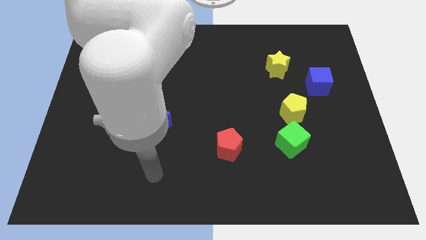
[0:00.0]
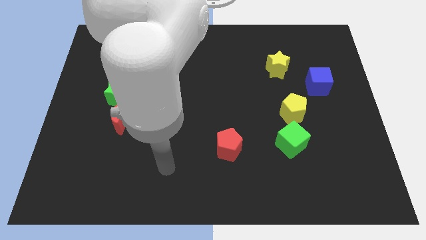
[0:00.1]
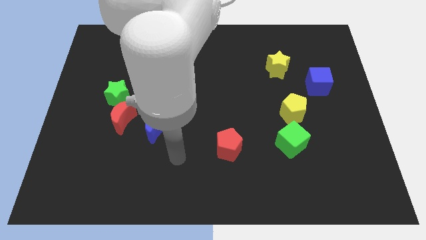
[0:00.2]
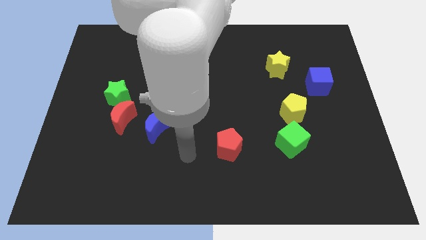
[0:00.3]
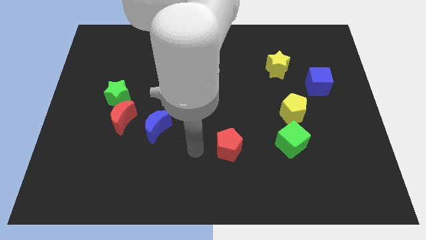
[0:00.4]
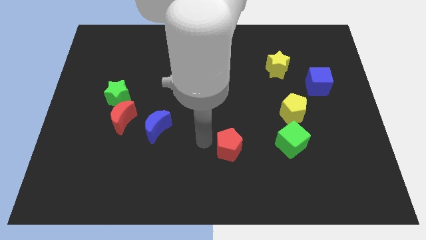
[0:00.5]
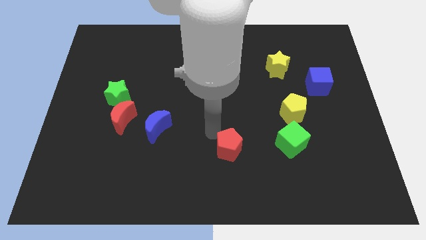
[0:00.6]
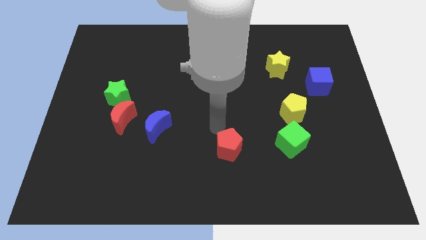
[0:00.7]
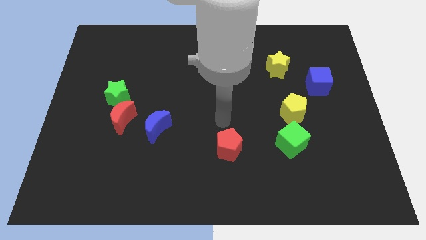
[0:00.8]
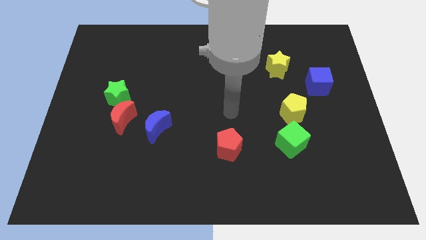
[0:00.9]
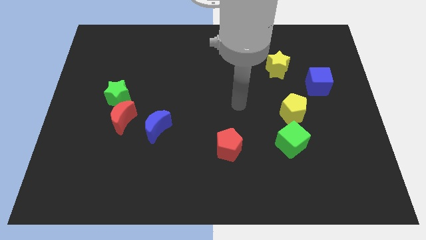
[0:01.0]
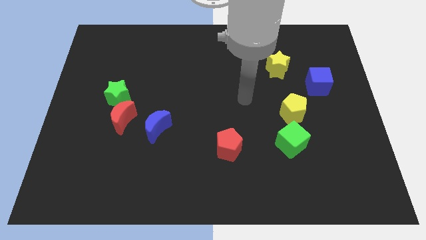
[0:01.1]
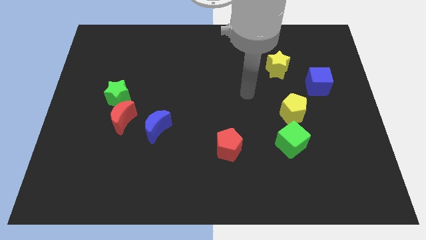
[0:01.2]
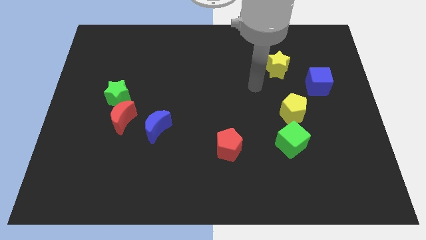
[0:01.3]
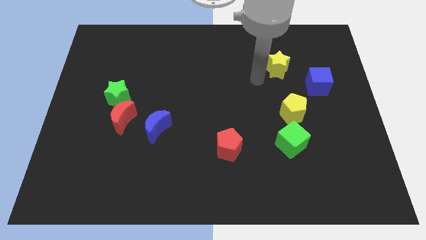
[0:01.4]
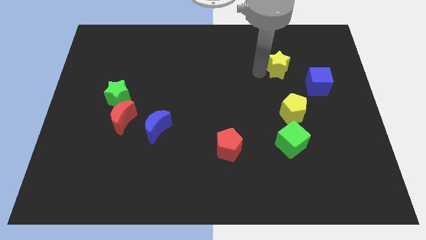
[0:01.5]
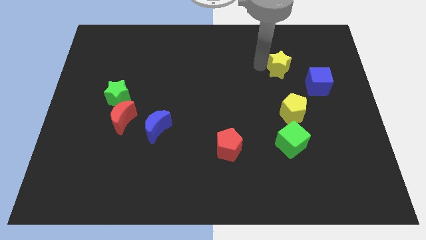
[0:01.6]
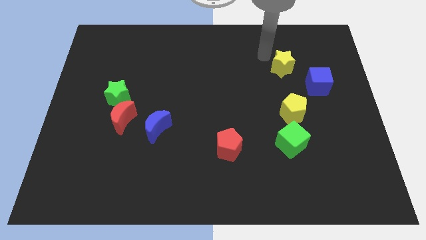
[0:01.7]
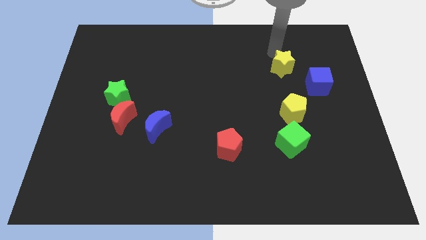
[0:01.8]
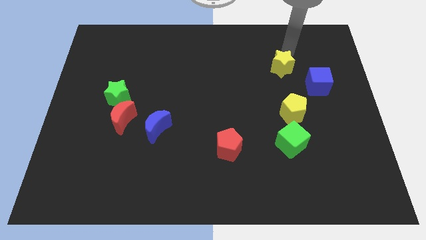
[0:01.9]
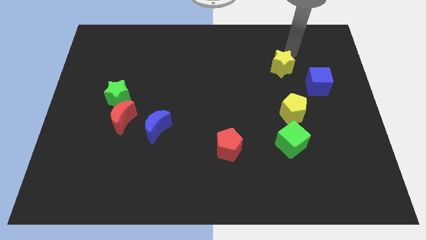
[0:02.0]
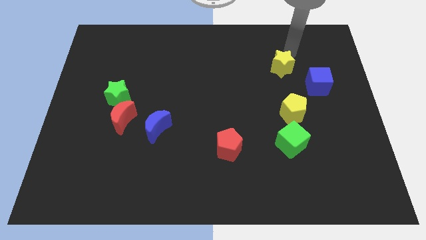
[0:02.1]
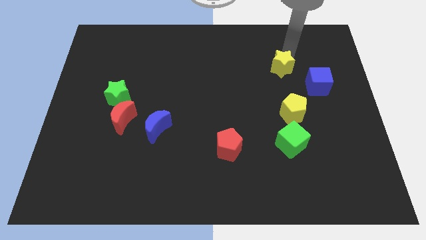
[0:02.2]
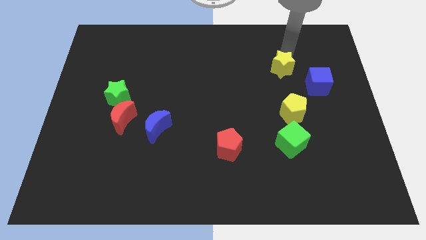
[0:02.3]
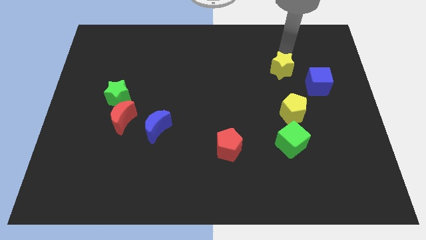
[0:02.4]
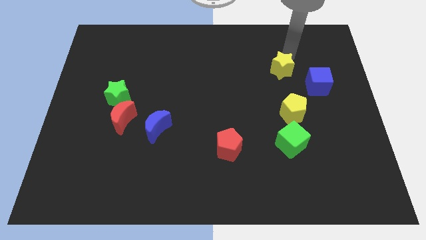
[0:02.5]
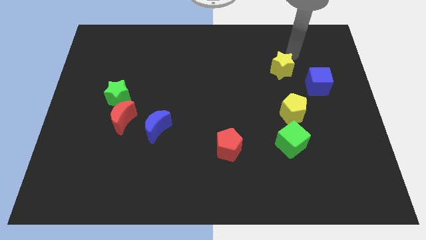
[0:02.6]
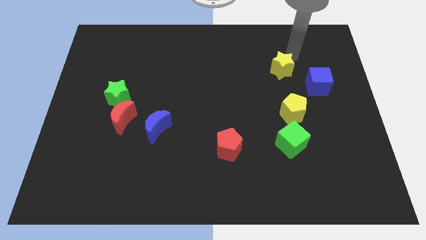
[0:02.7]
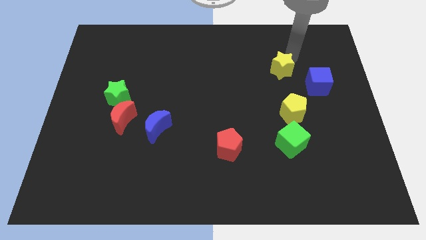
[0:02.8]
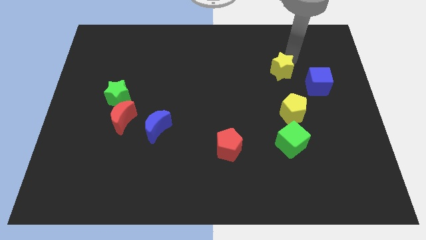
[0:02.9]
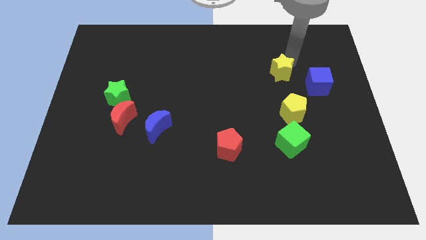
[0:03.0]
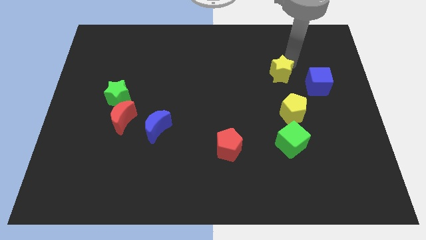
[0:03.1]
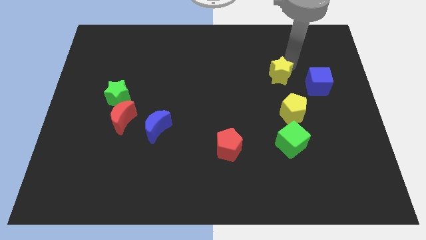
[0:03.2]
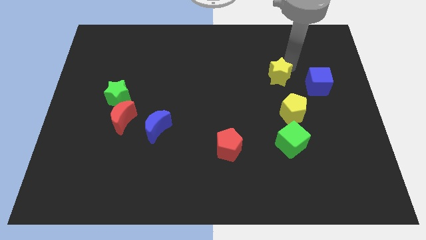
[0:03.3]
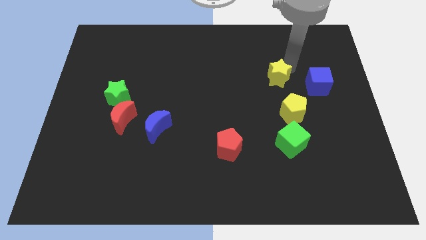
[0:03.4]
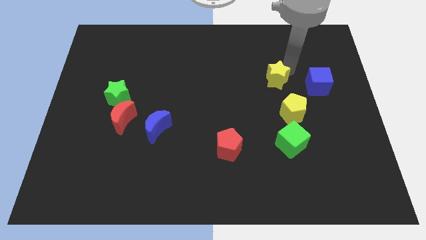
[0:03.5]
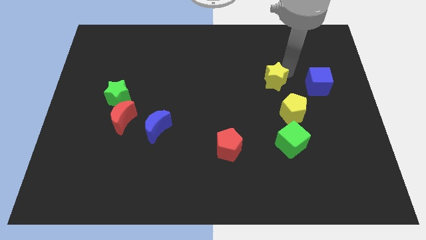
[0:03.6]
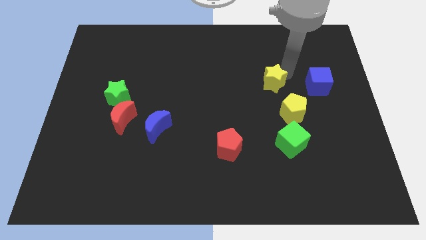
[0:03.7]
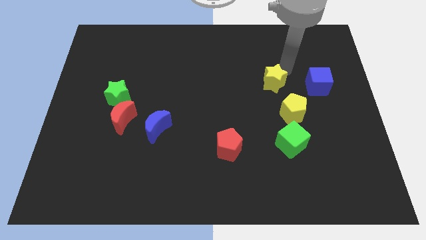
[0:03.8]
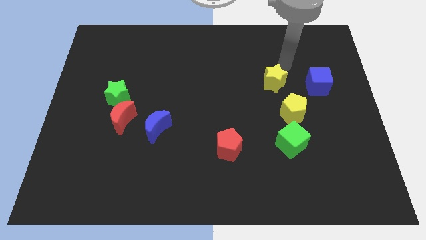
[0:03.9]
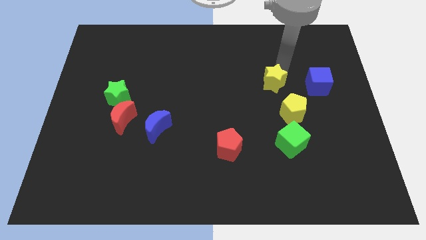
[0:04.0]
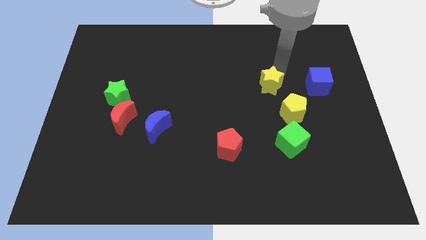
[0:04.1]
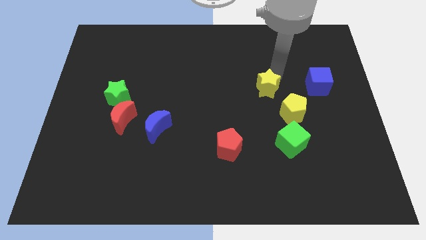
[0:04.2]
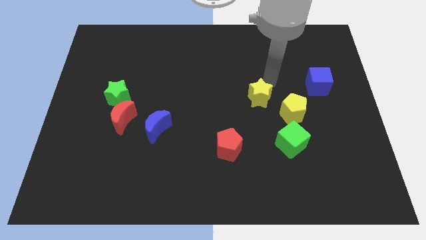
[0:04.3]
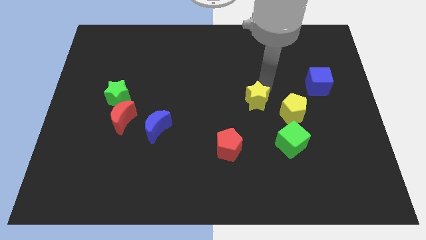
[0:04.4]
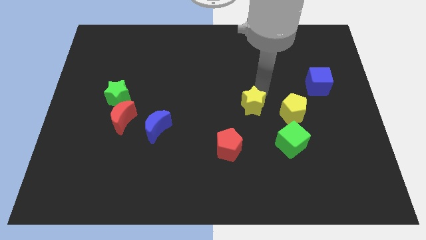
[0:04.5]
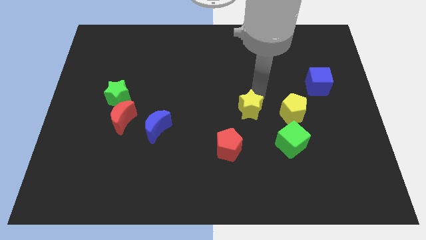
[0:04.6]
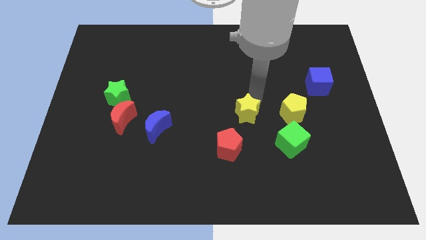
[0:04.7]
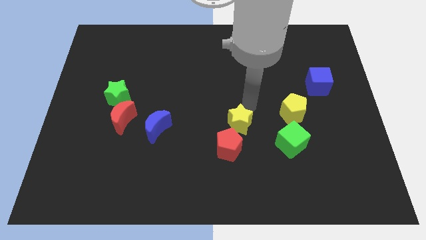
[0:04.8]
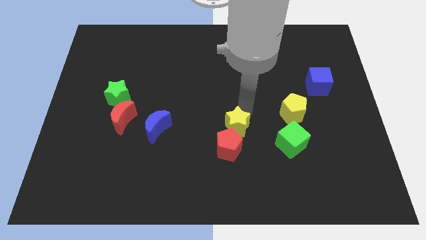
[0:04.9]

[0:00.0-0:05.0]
slide the yellow star towards the red pentagon

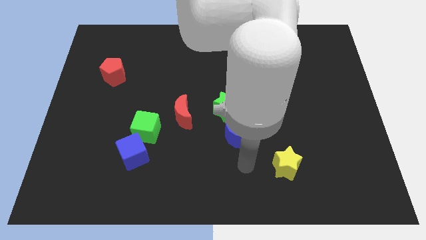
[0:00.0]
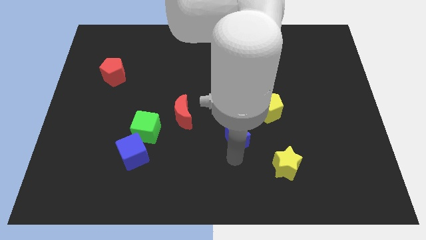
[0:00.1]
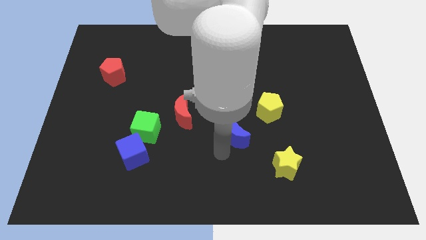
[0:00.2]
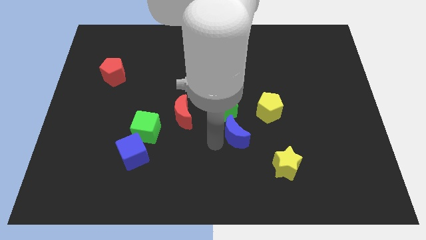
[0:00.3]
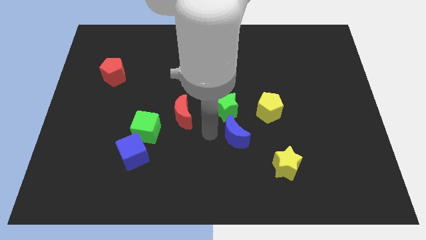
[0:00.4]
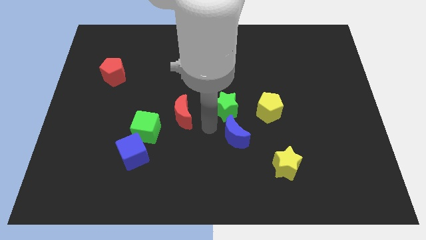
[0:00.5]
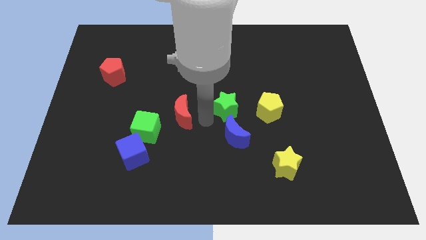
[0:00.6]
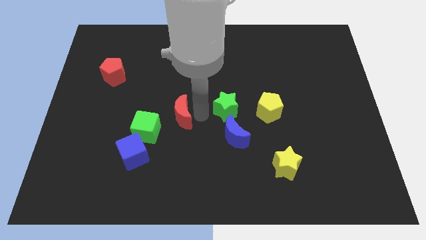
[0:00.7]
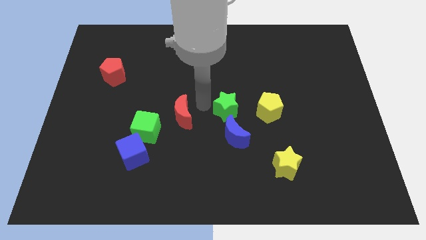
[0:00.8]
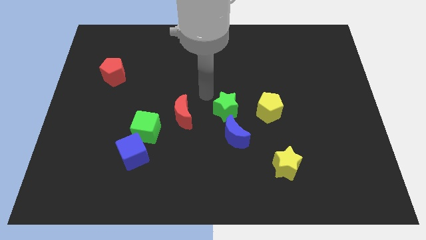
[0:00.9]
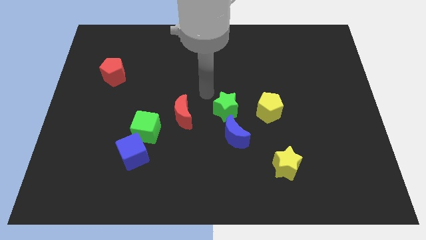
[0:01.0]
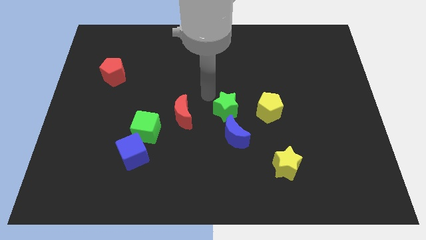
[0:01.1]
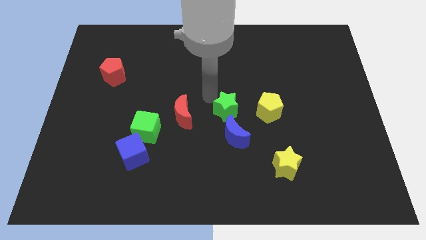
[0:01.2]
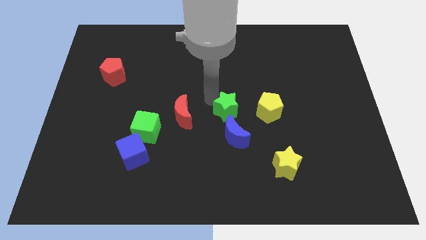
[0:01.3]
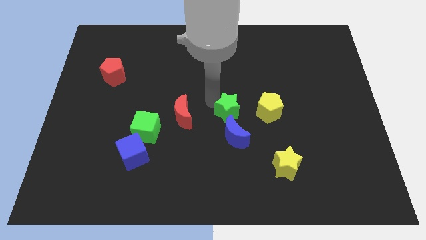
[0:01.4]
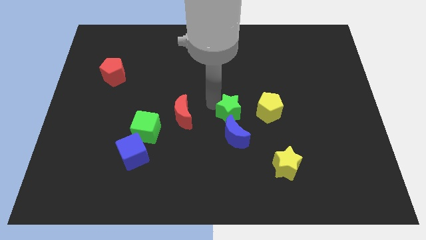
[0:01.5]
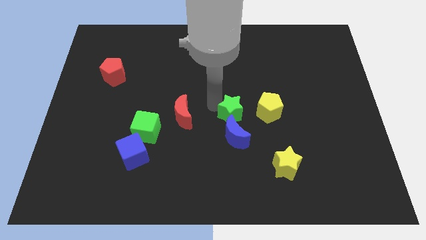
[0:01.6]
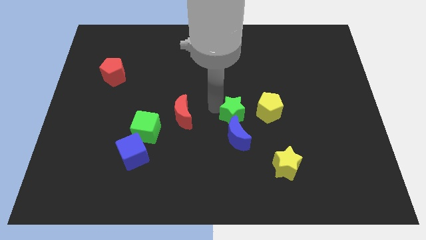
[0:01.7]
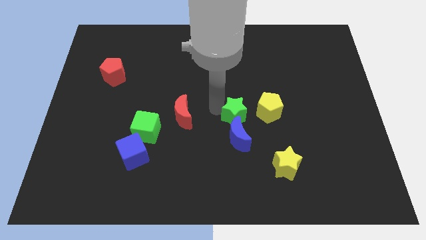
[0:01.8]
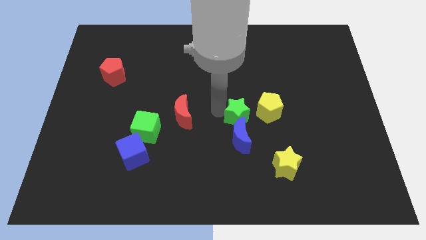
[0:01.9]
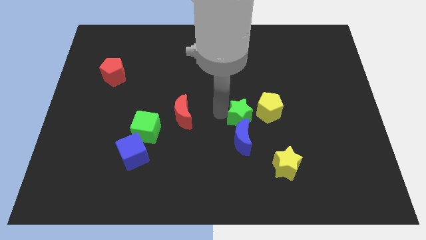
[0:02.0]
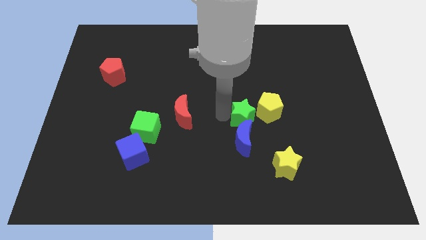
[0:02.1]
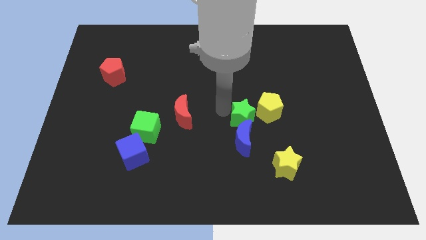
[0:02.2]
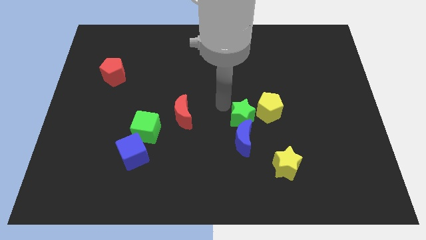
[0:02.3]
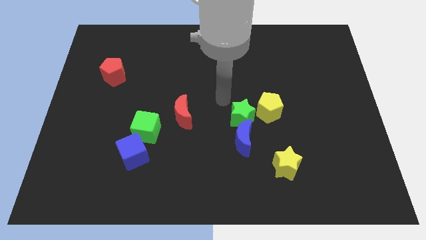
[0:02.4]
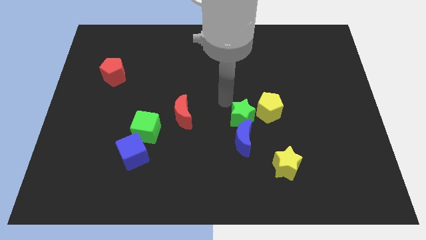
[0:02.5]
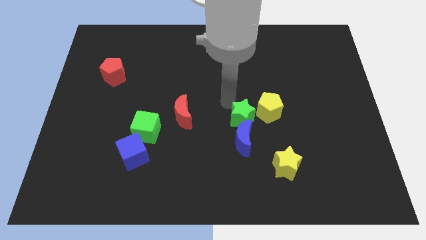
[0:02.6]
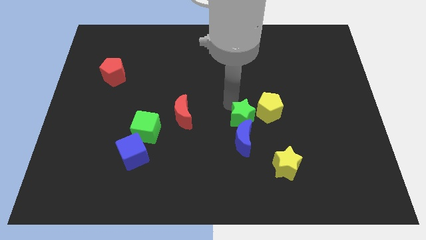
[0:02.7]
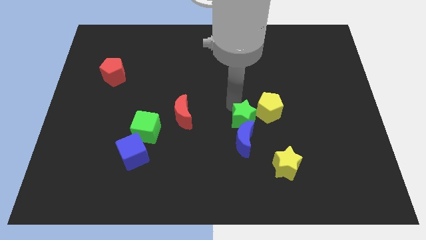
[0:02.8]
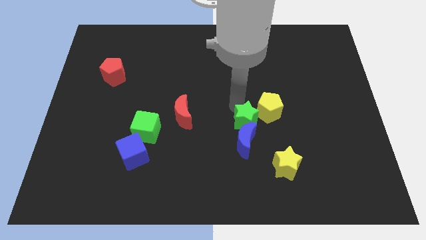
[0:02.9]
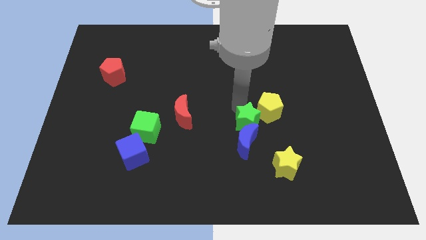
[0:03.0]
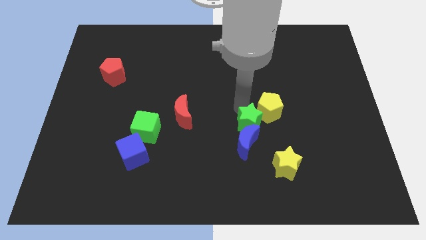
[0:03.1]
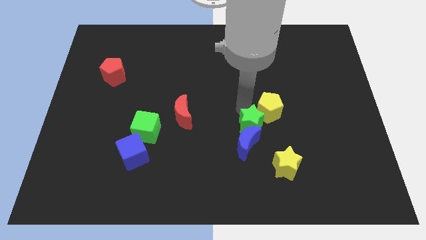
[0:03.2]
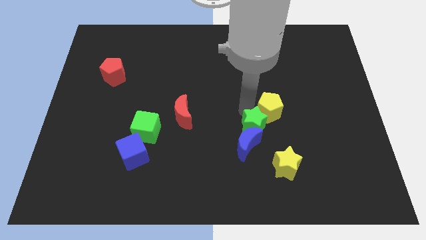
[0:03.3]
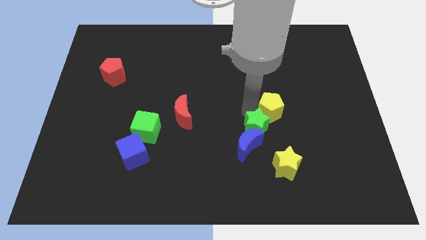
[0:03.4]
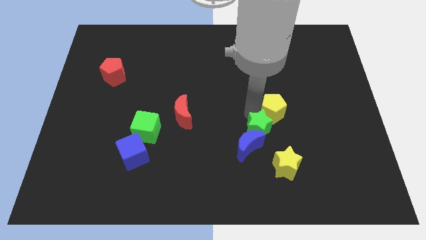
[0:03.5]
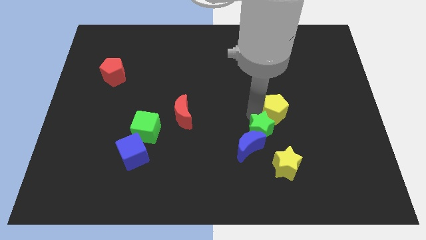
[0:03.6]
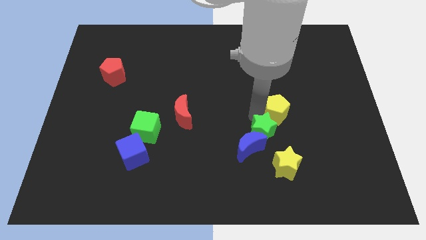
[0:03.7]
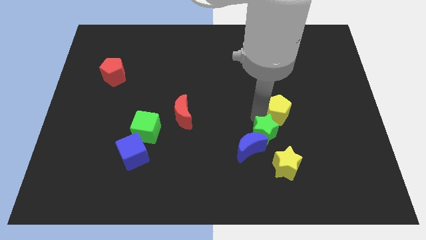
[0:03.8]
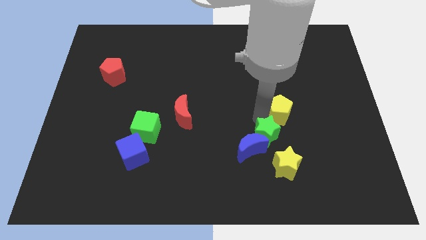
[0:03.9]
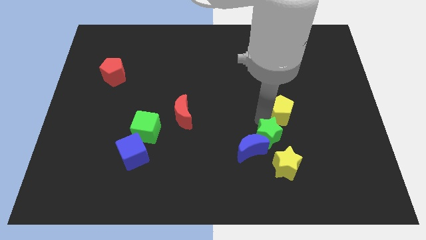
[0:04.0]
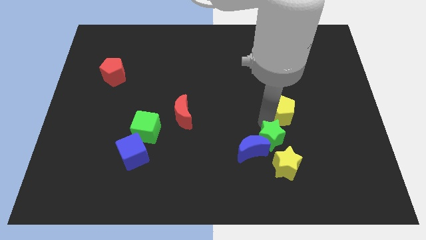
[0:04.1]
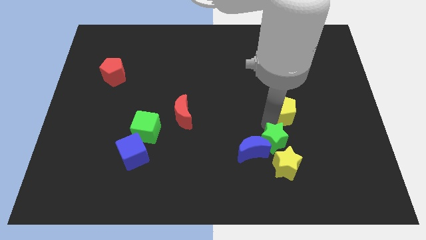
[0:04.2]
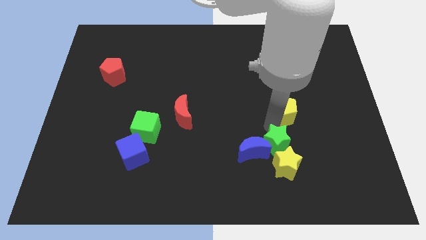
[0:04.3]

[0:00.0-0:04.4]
put the green star next to the yellow star
